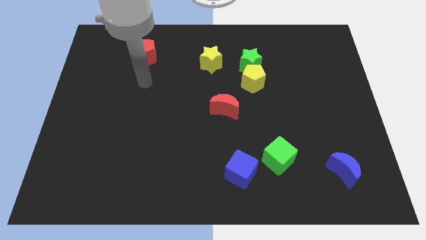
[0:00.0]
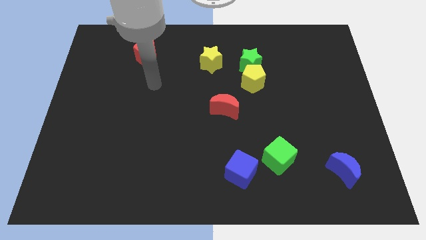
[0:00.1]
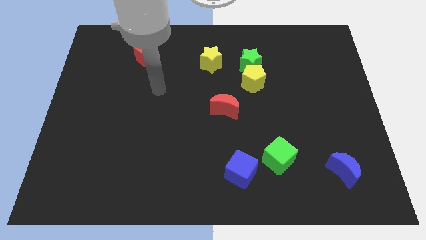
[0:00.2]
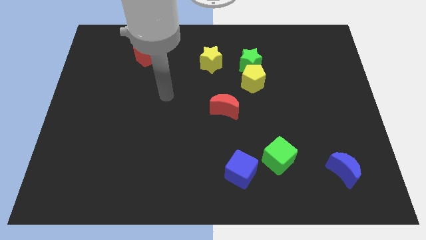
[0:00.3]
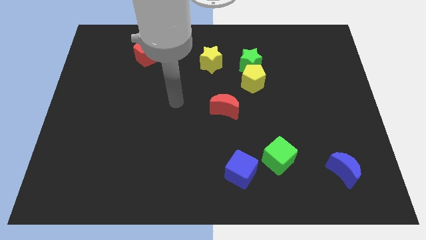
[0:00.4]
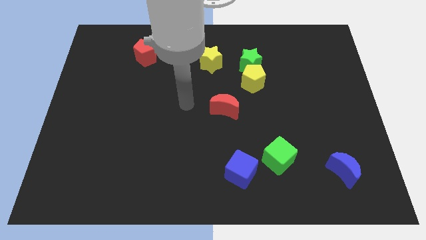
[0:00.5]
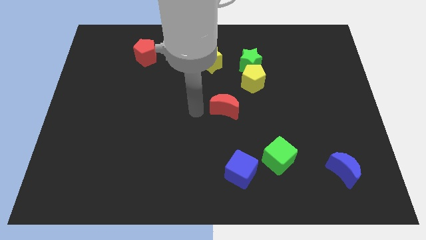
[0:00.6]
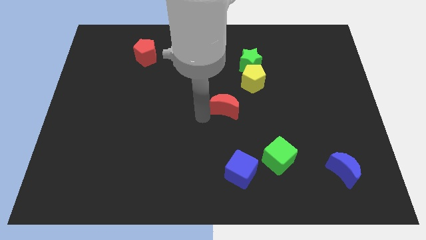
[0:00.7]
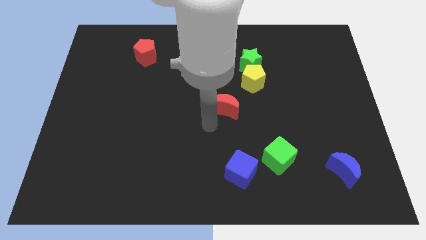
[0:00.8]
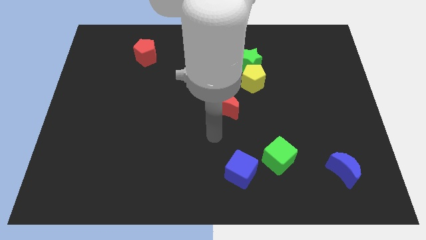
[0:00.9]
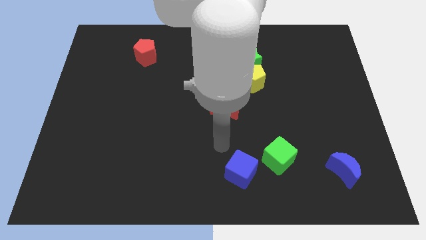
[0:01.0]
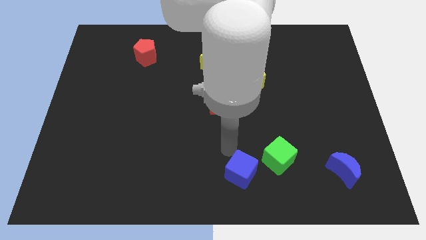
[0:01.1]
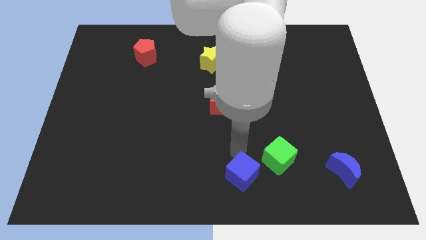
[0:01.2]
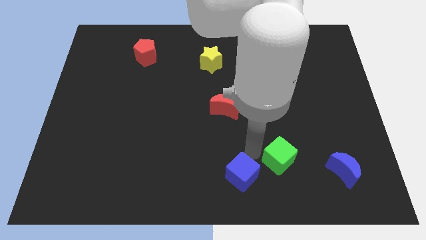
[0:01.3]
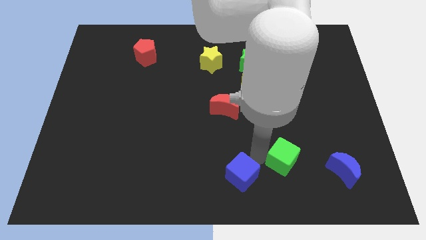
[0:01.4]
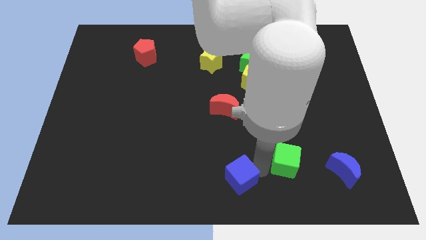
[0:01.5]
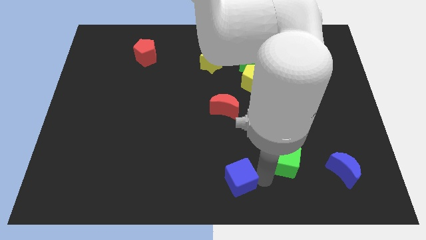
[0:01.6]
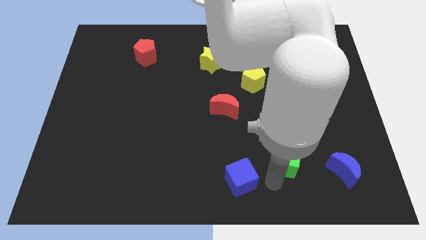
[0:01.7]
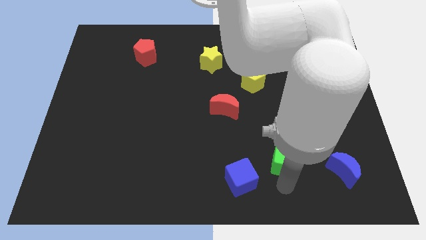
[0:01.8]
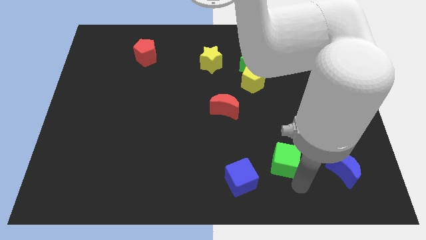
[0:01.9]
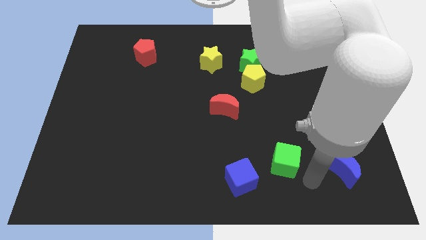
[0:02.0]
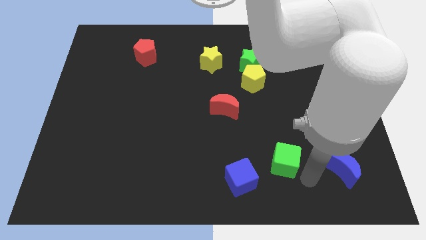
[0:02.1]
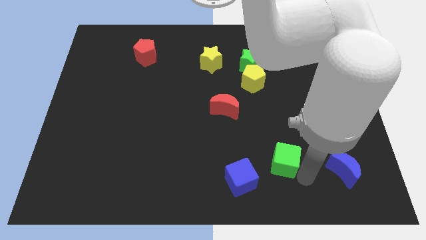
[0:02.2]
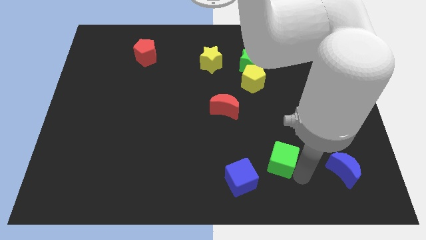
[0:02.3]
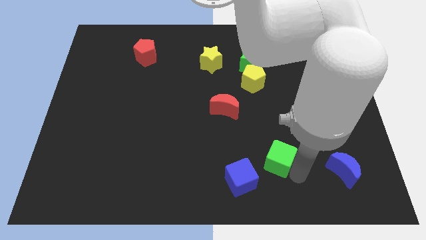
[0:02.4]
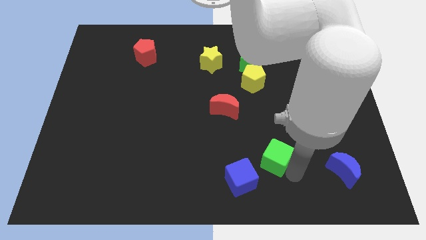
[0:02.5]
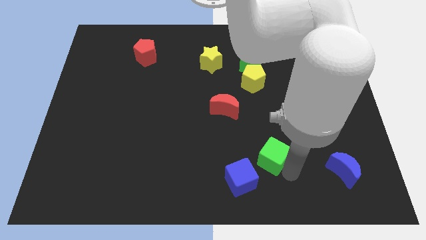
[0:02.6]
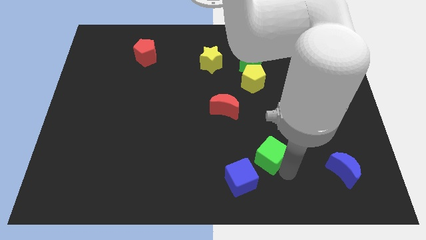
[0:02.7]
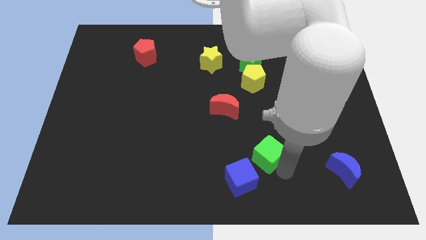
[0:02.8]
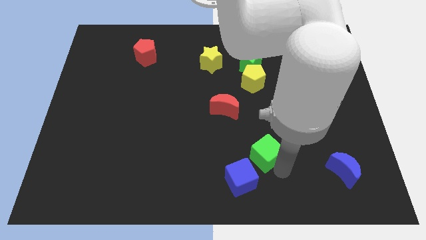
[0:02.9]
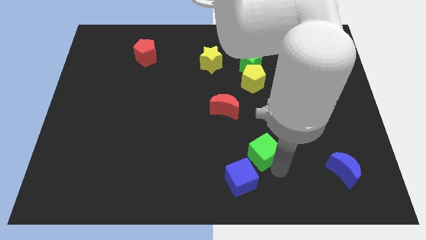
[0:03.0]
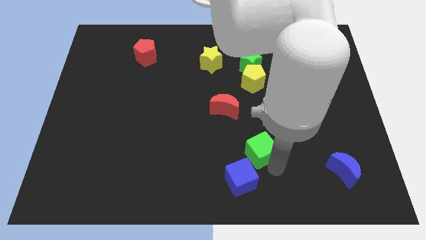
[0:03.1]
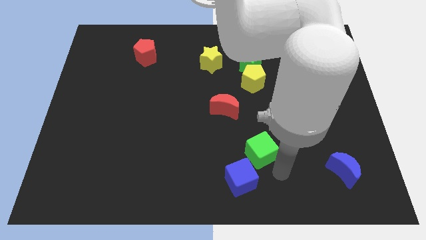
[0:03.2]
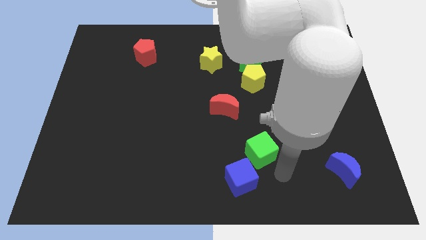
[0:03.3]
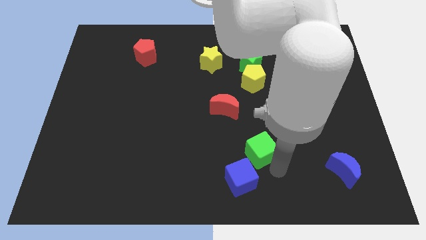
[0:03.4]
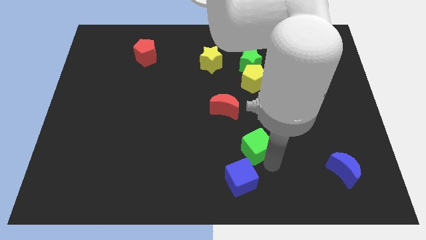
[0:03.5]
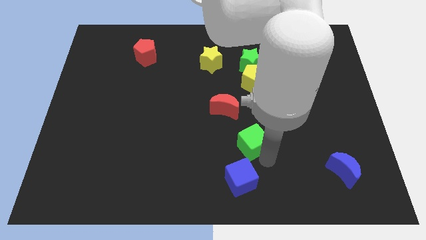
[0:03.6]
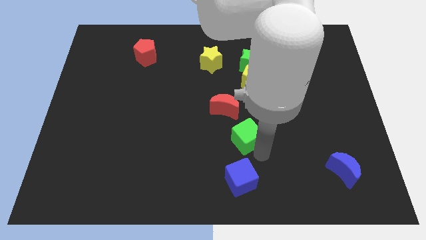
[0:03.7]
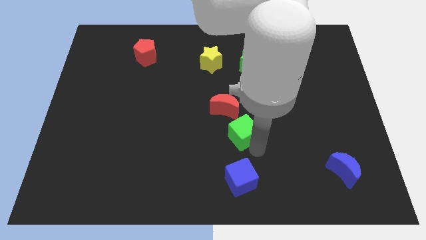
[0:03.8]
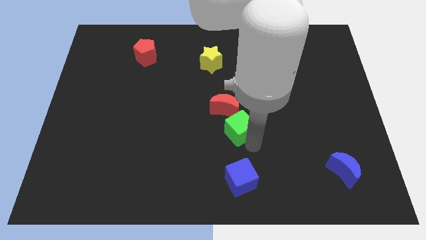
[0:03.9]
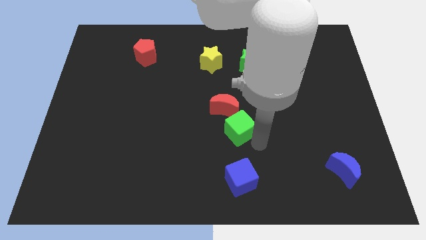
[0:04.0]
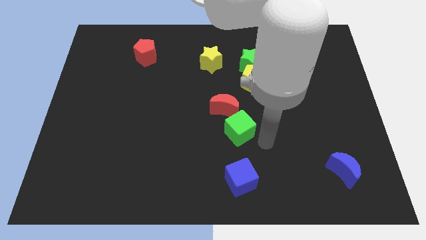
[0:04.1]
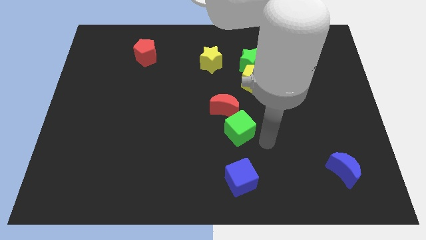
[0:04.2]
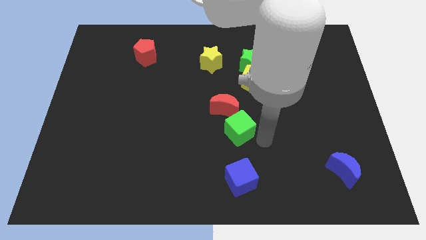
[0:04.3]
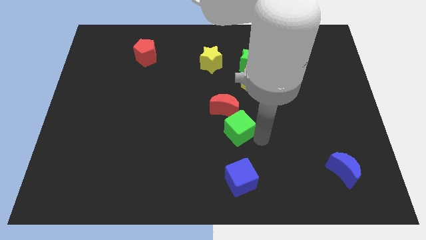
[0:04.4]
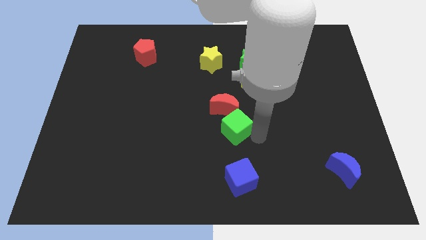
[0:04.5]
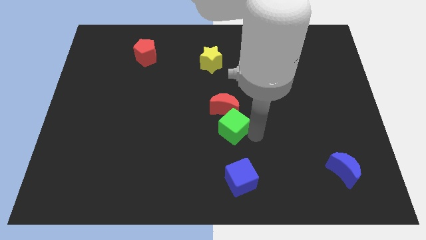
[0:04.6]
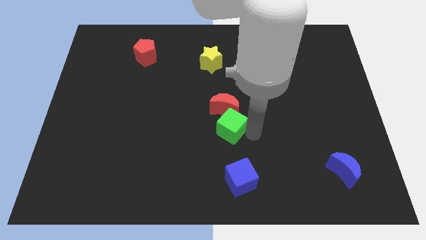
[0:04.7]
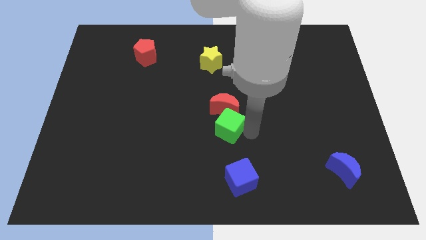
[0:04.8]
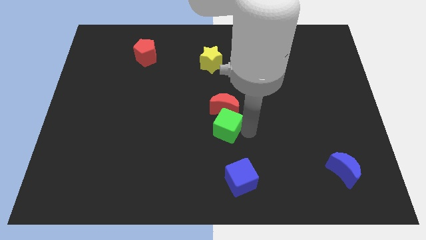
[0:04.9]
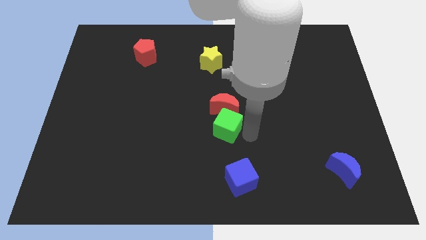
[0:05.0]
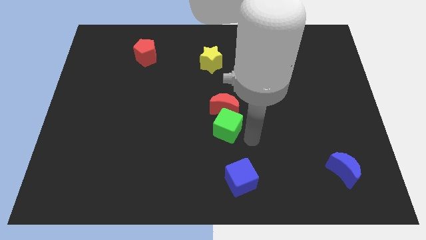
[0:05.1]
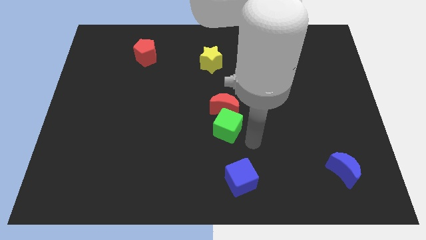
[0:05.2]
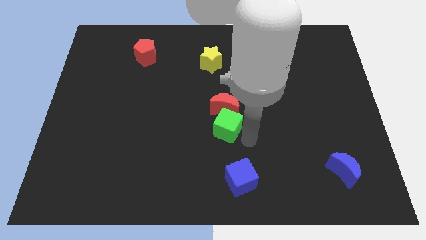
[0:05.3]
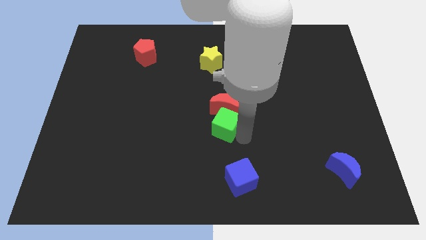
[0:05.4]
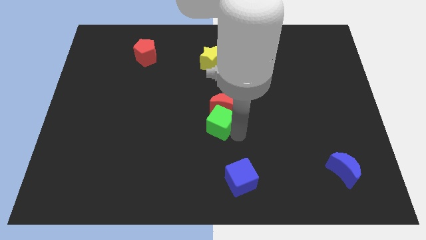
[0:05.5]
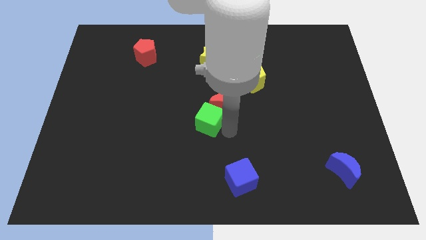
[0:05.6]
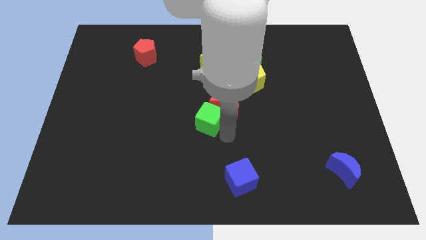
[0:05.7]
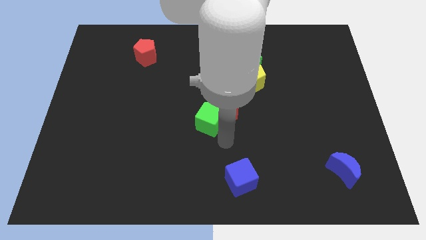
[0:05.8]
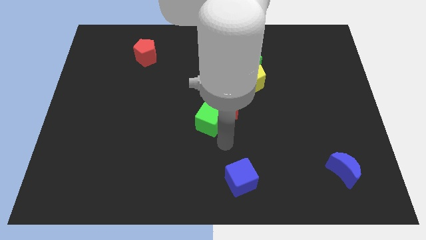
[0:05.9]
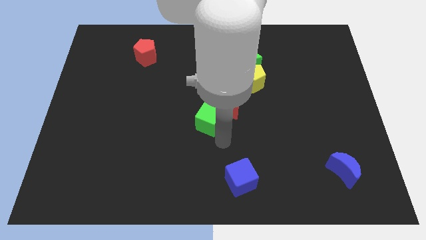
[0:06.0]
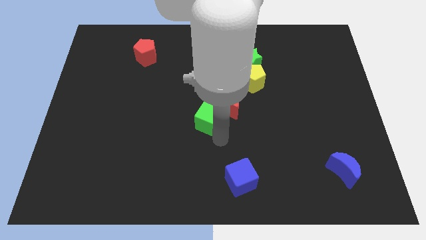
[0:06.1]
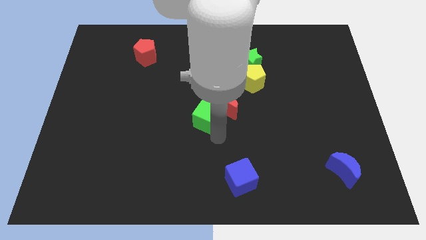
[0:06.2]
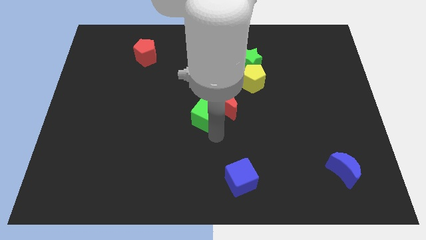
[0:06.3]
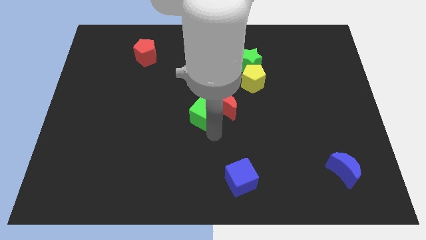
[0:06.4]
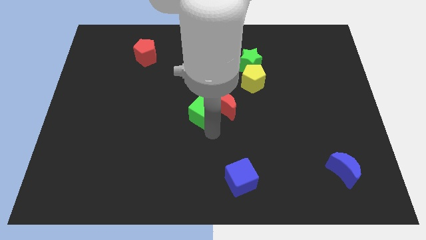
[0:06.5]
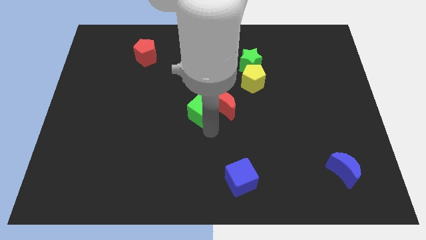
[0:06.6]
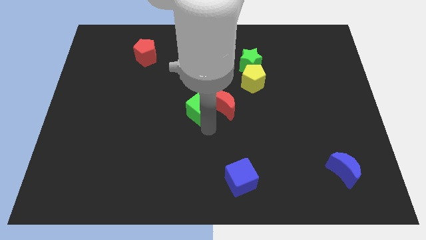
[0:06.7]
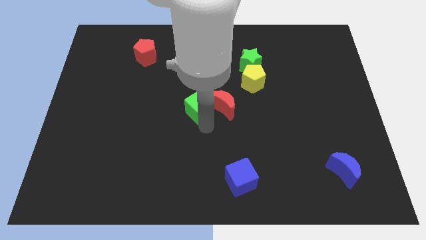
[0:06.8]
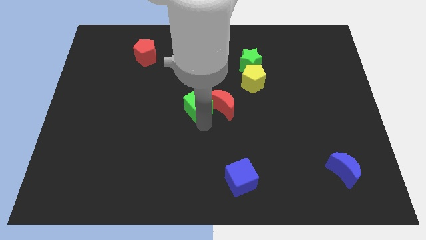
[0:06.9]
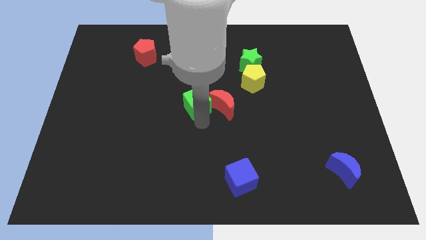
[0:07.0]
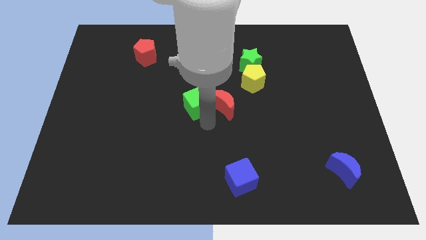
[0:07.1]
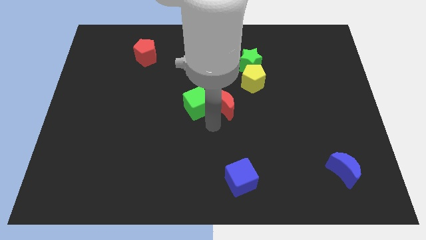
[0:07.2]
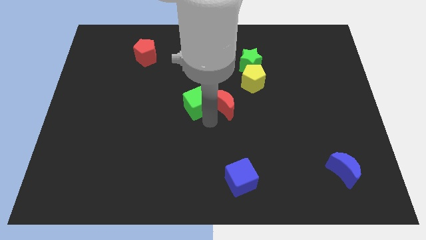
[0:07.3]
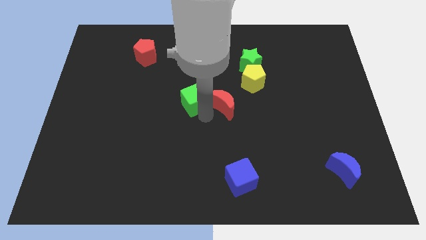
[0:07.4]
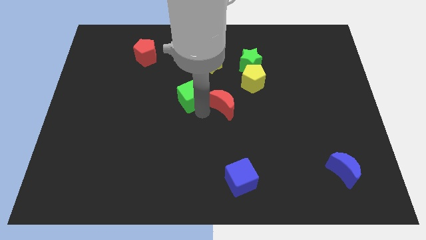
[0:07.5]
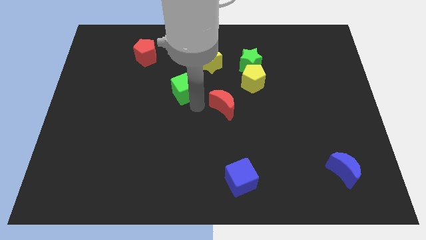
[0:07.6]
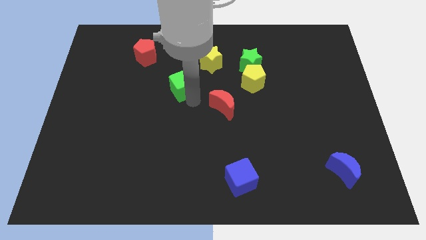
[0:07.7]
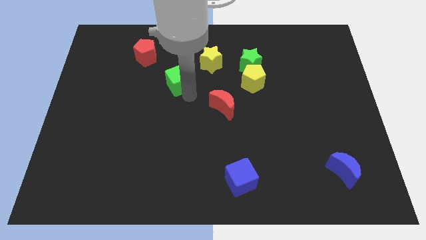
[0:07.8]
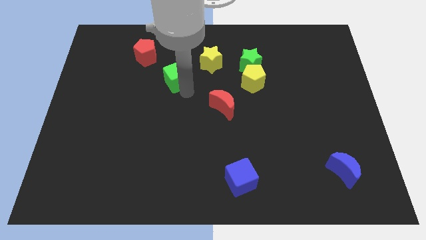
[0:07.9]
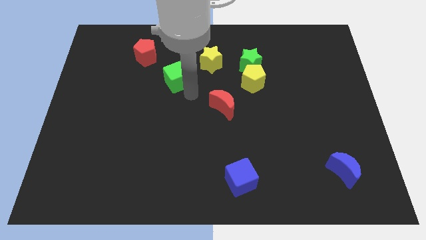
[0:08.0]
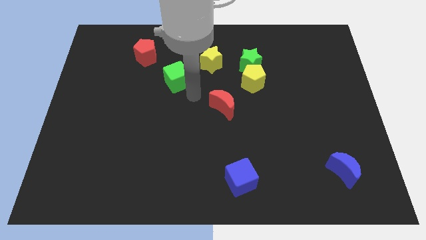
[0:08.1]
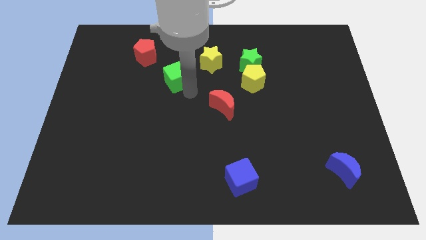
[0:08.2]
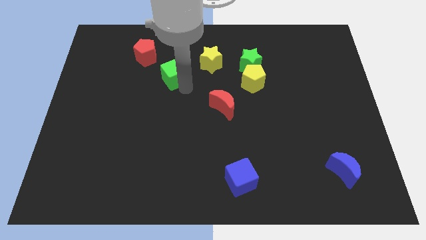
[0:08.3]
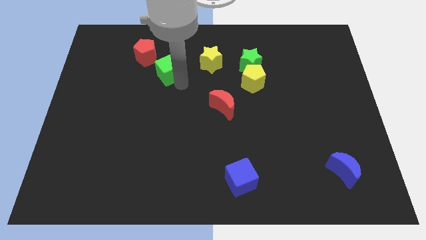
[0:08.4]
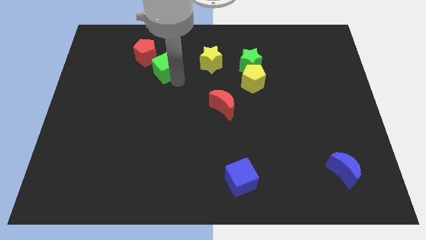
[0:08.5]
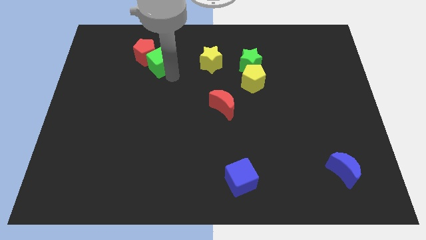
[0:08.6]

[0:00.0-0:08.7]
put the green cube close to the red pentagon
